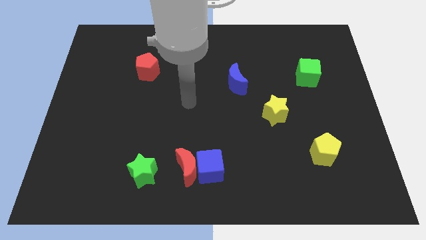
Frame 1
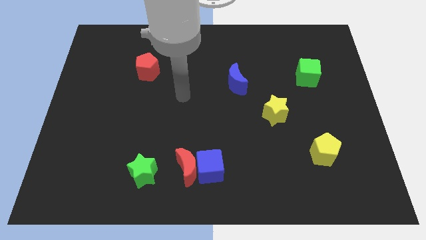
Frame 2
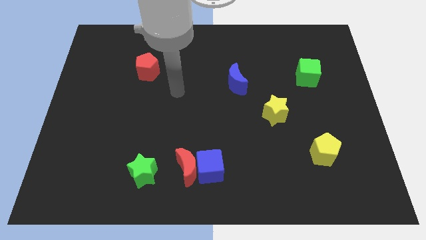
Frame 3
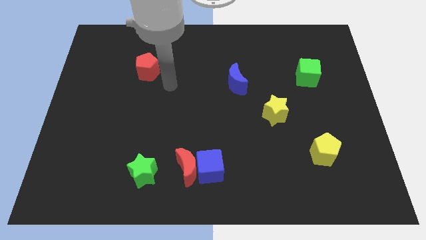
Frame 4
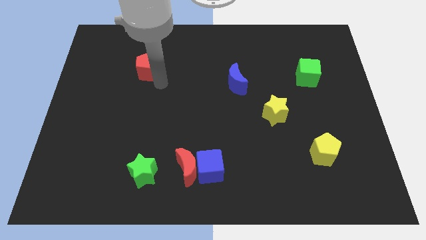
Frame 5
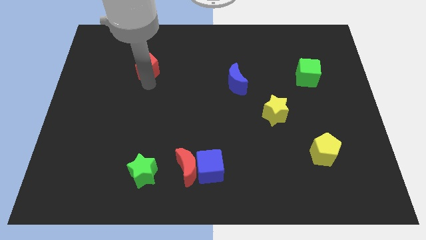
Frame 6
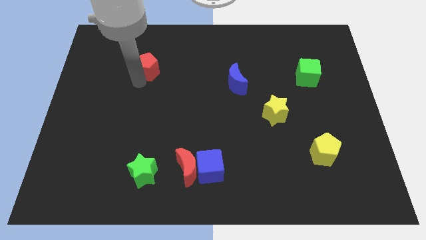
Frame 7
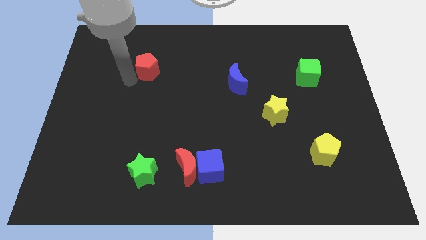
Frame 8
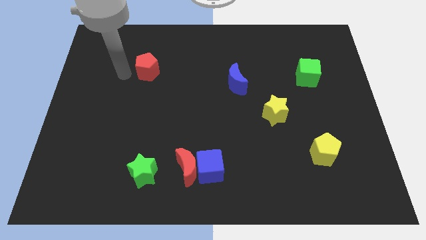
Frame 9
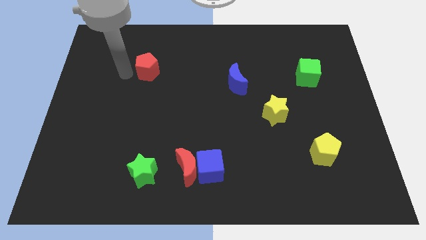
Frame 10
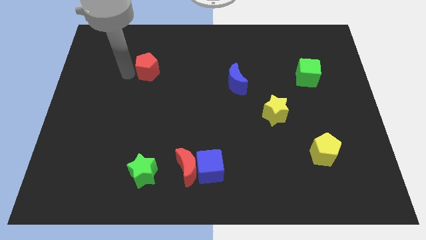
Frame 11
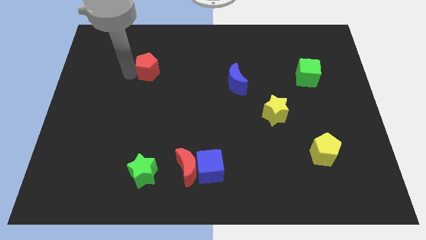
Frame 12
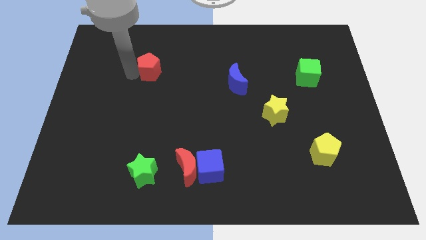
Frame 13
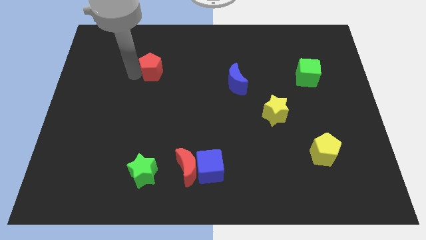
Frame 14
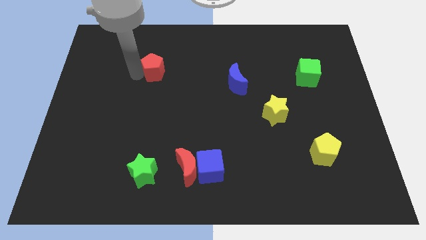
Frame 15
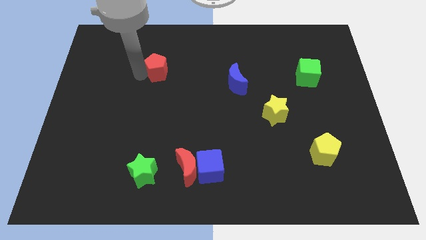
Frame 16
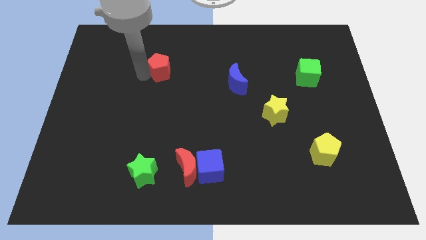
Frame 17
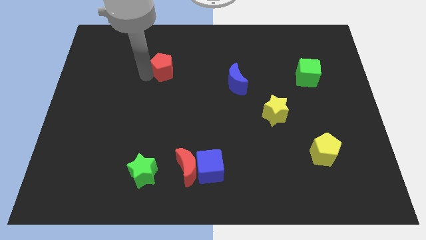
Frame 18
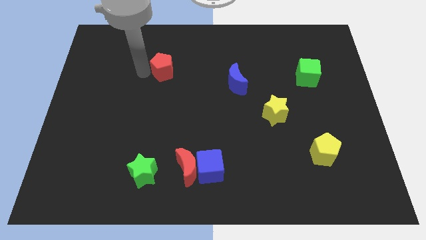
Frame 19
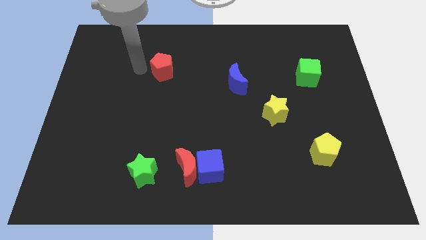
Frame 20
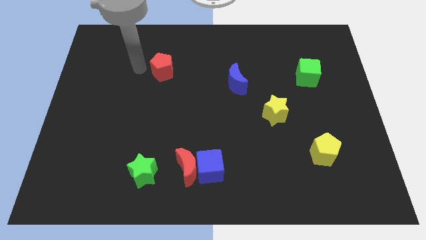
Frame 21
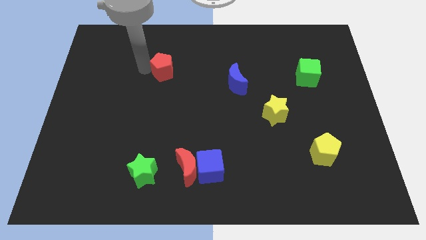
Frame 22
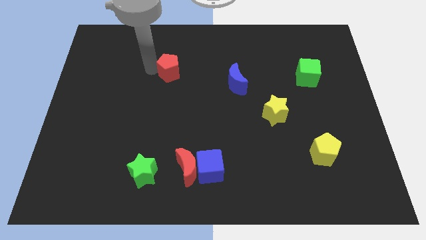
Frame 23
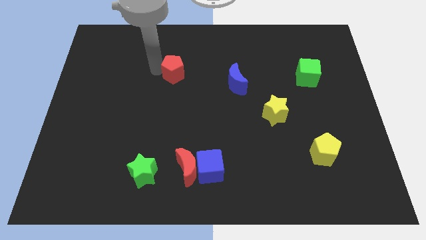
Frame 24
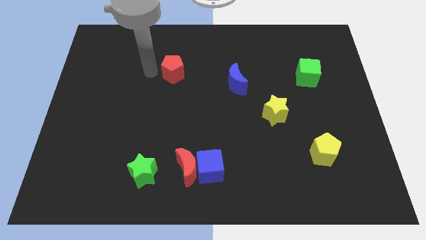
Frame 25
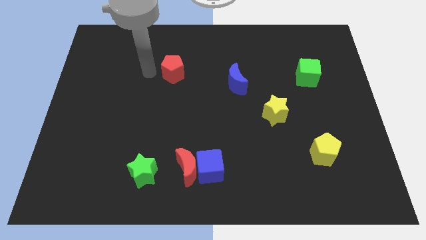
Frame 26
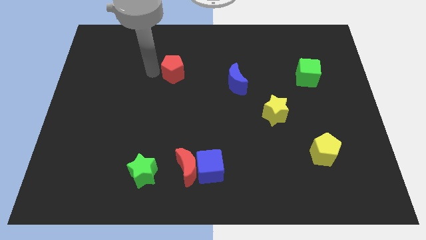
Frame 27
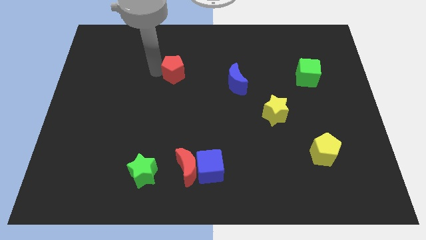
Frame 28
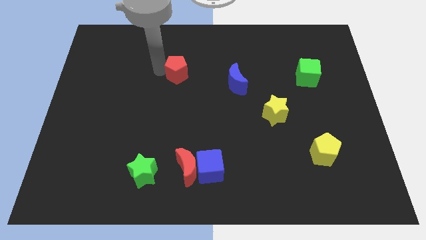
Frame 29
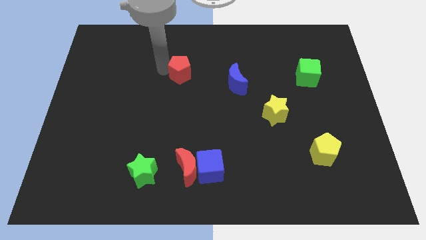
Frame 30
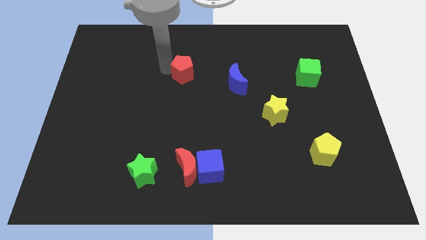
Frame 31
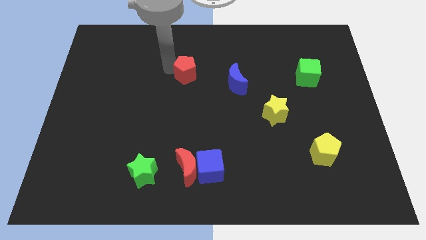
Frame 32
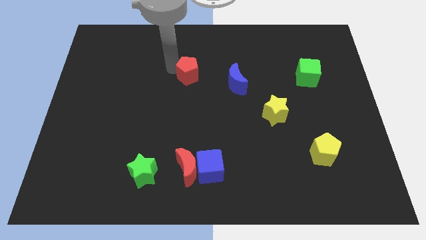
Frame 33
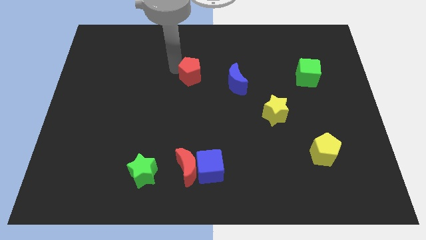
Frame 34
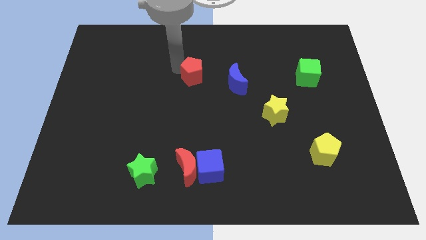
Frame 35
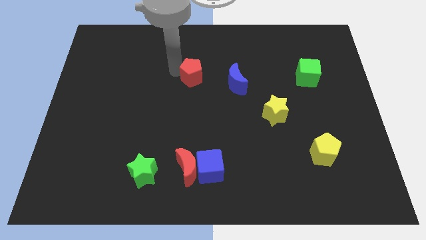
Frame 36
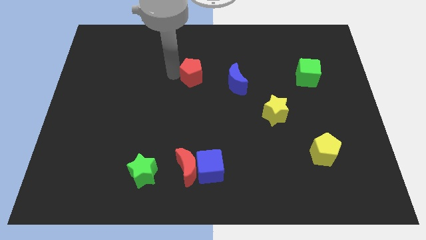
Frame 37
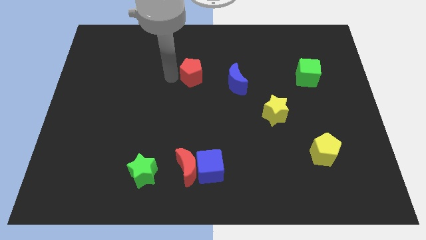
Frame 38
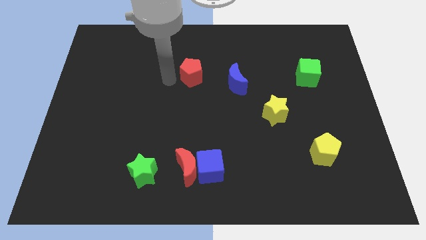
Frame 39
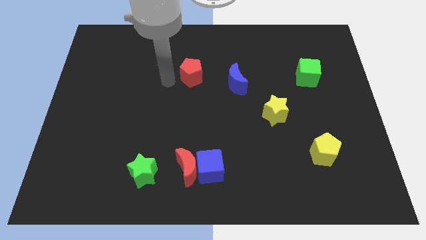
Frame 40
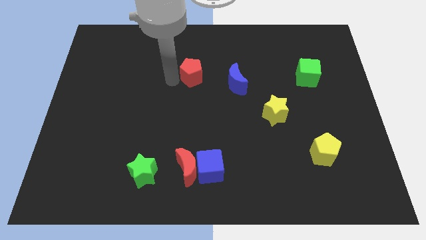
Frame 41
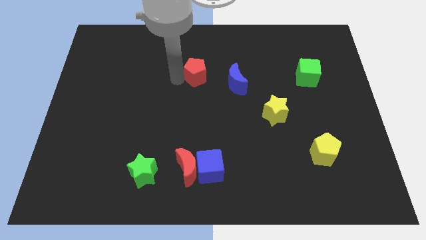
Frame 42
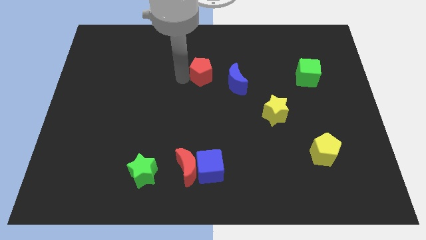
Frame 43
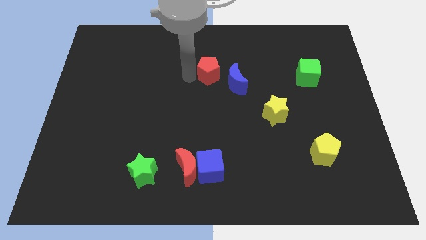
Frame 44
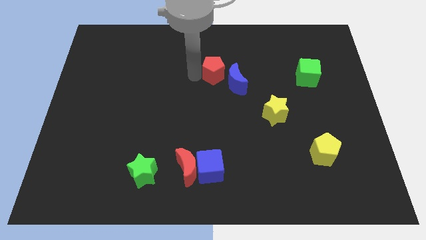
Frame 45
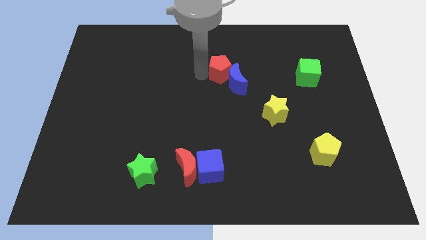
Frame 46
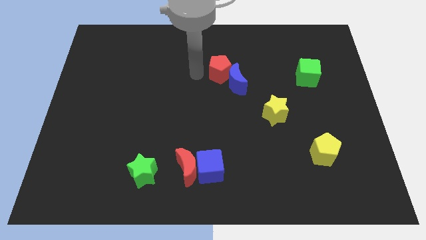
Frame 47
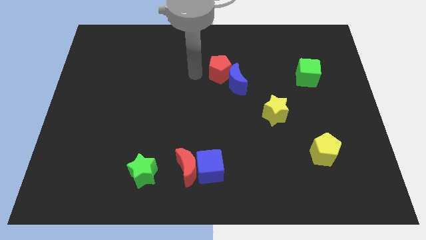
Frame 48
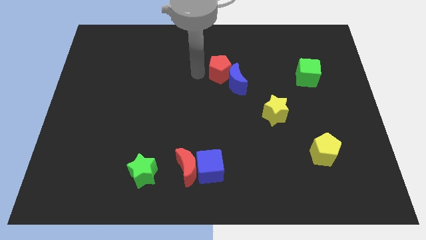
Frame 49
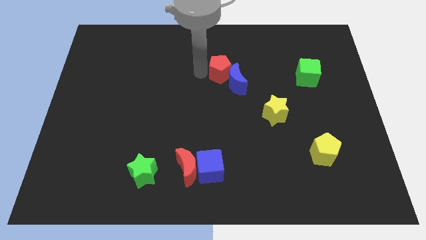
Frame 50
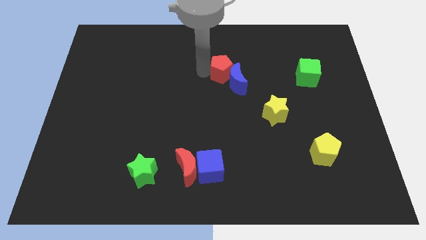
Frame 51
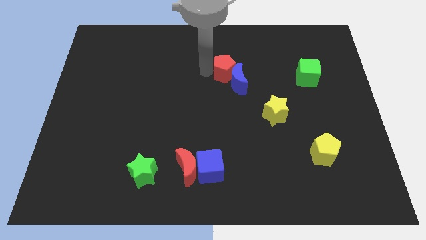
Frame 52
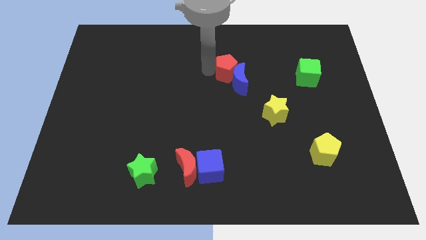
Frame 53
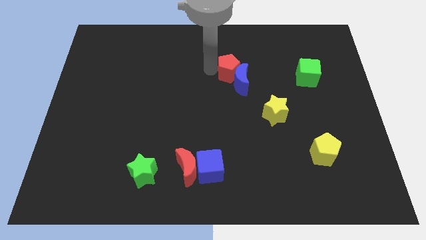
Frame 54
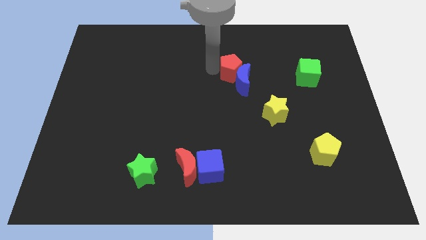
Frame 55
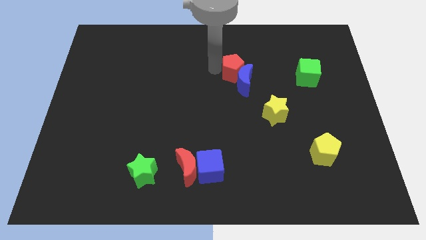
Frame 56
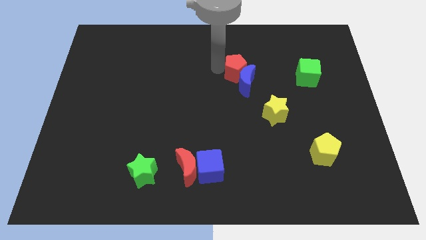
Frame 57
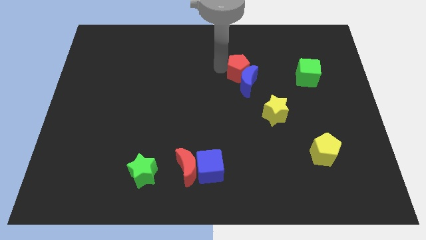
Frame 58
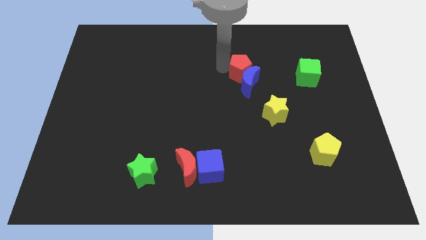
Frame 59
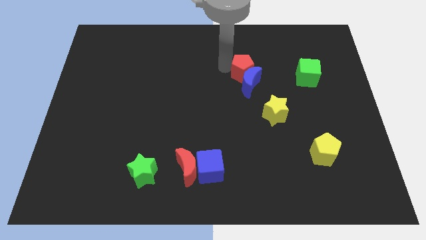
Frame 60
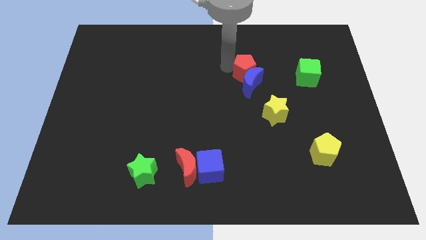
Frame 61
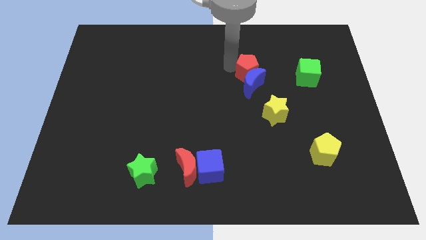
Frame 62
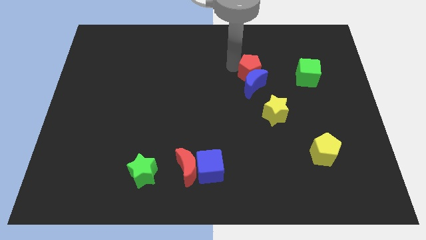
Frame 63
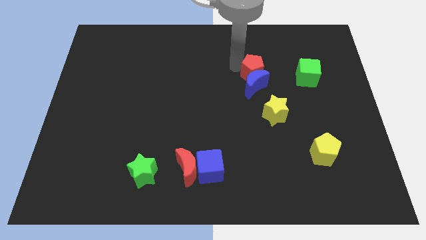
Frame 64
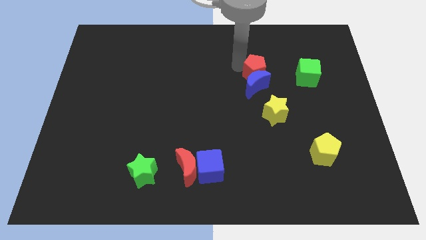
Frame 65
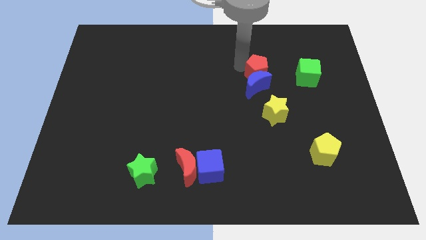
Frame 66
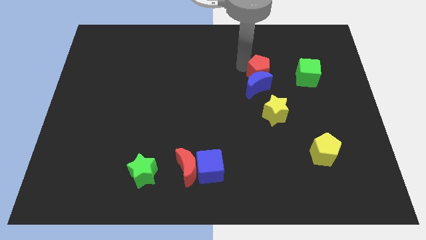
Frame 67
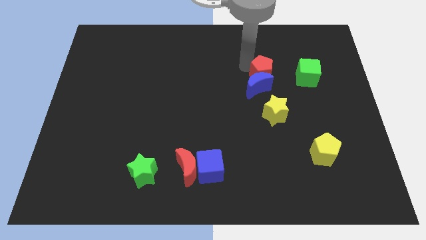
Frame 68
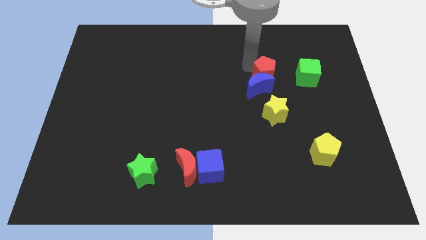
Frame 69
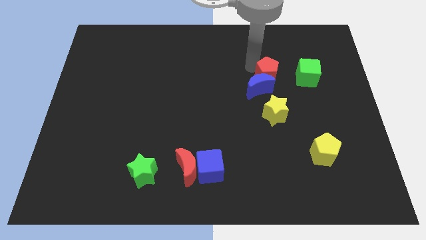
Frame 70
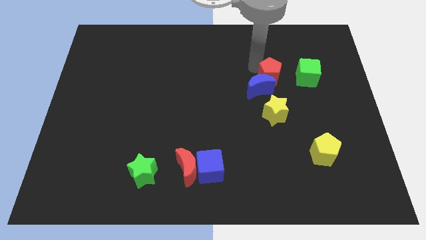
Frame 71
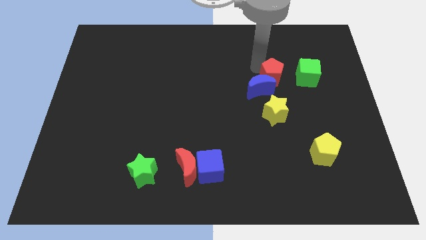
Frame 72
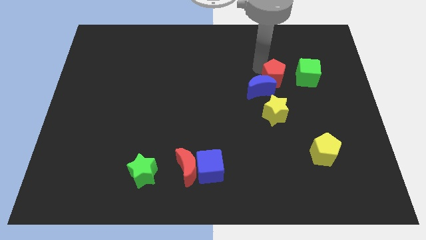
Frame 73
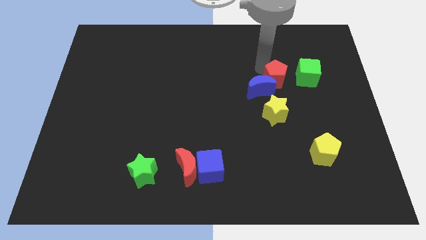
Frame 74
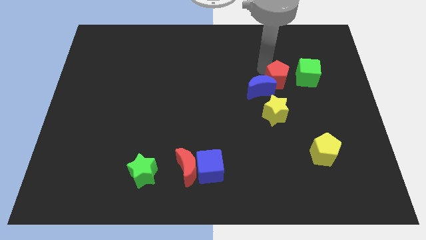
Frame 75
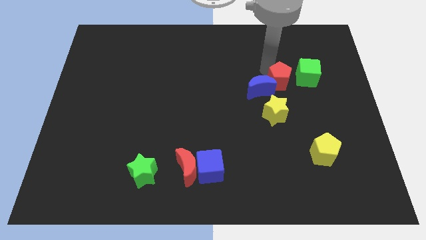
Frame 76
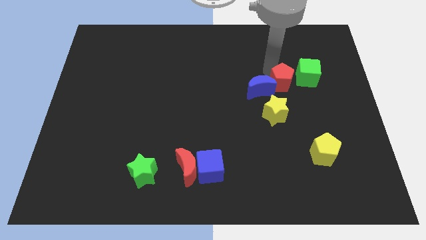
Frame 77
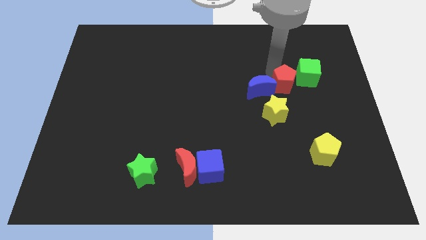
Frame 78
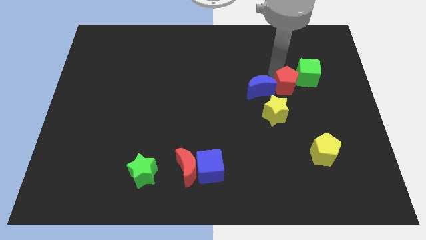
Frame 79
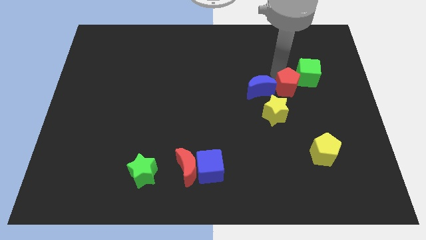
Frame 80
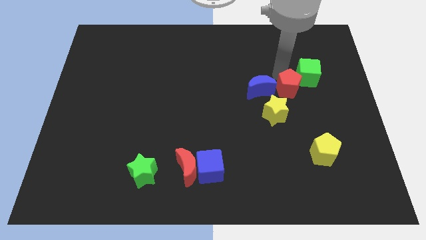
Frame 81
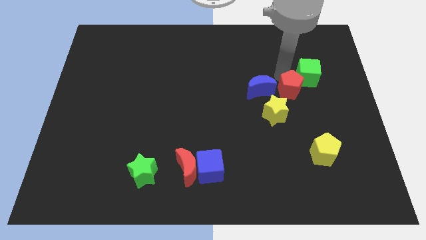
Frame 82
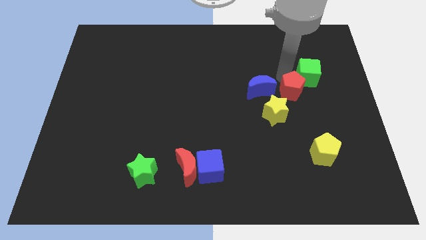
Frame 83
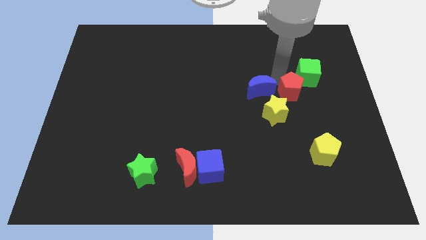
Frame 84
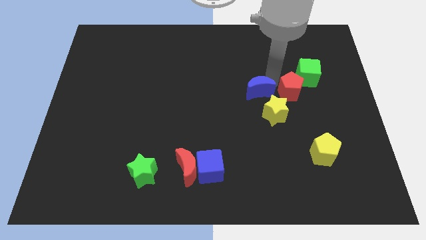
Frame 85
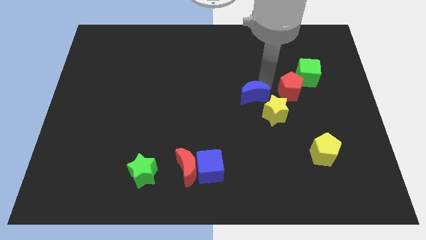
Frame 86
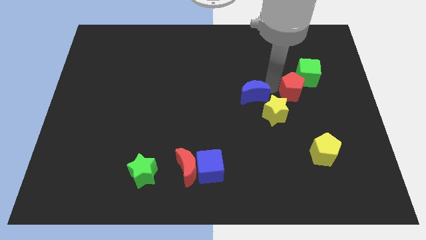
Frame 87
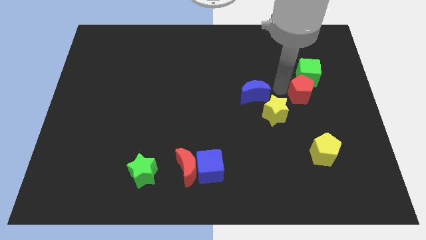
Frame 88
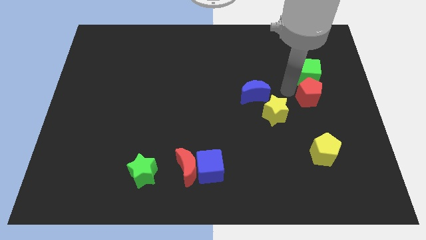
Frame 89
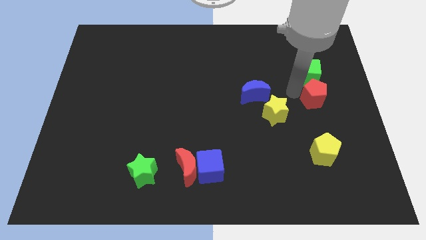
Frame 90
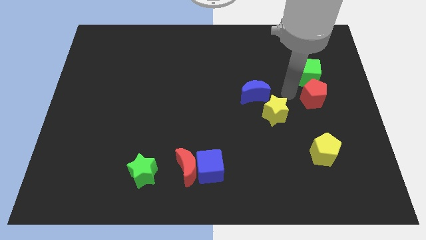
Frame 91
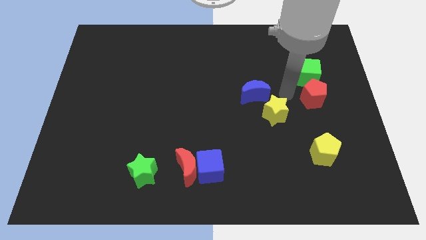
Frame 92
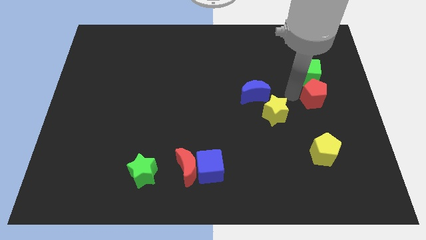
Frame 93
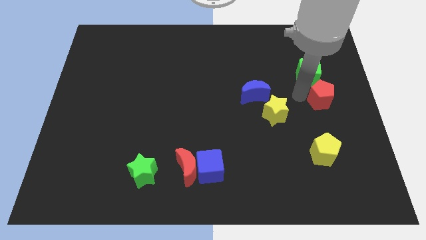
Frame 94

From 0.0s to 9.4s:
push the red pentagon to the right side of the board
